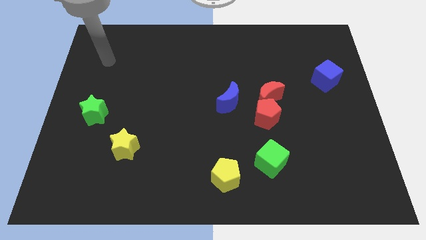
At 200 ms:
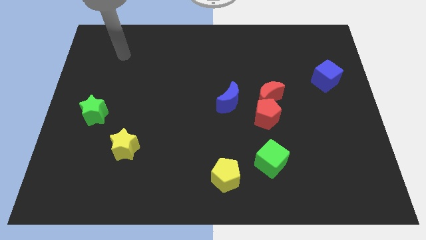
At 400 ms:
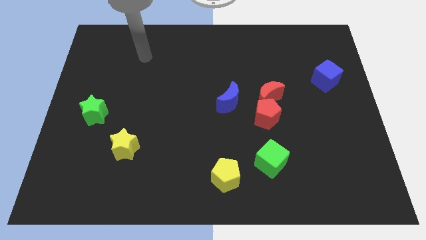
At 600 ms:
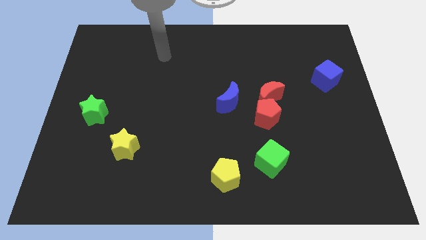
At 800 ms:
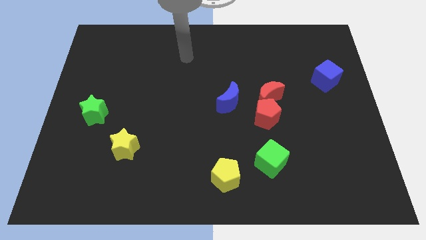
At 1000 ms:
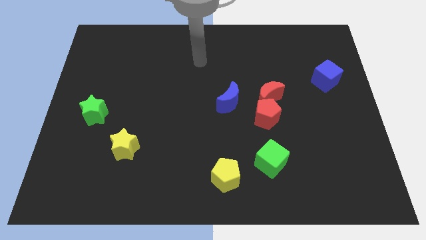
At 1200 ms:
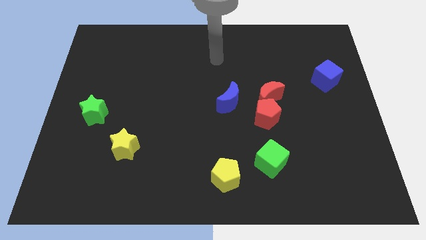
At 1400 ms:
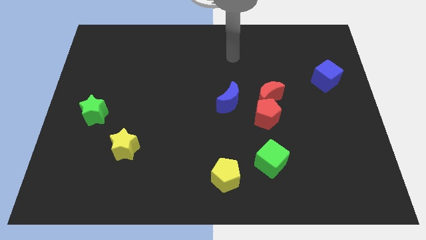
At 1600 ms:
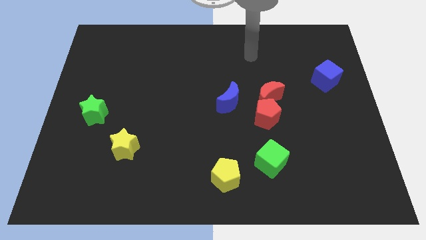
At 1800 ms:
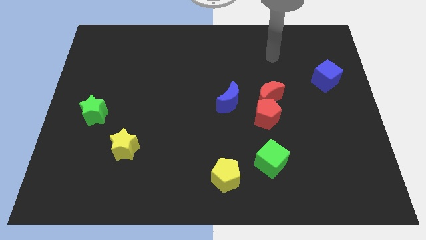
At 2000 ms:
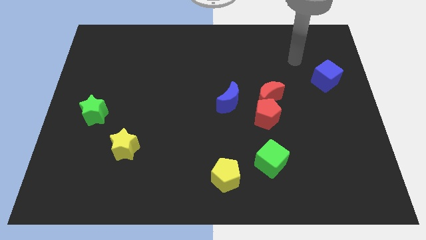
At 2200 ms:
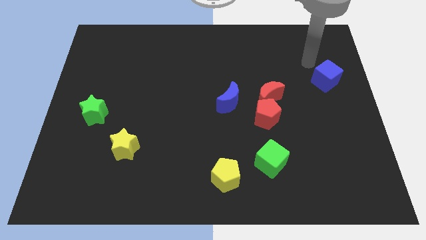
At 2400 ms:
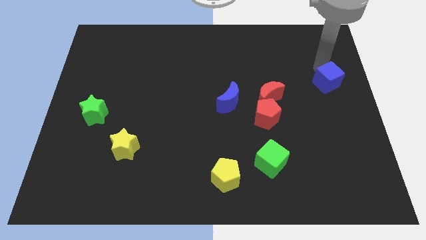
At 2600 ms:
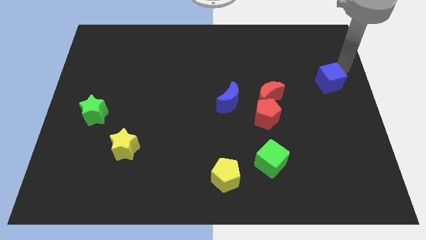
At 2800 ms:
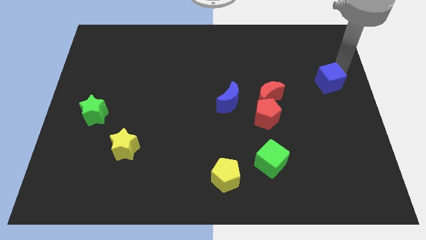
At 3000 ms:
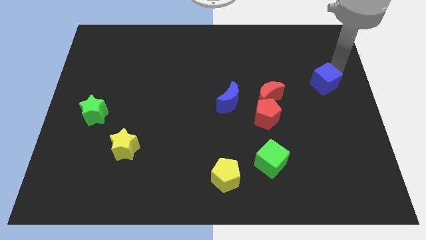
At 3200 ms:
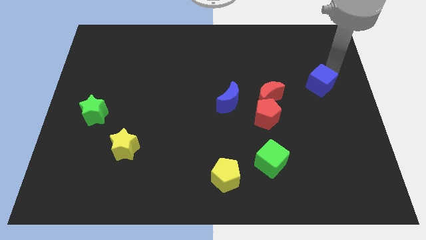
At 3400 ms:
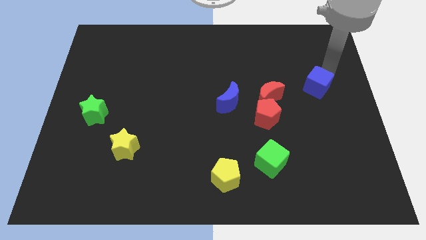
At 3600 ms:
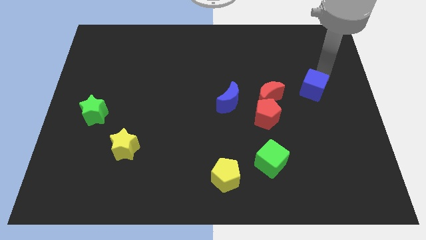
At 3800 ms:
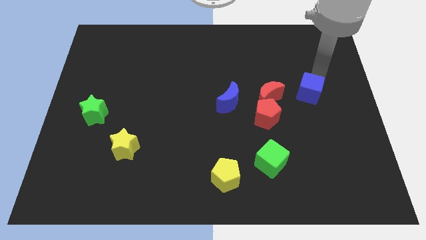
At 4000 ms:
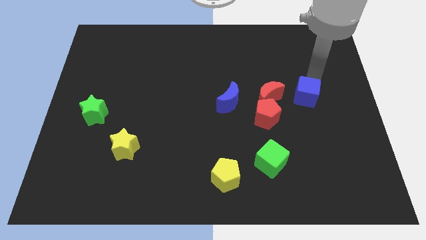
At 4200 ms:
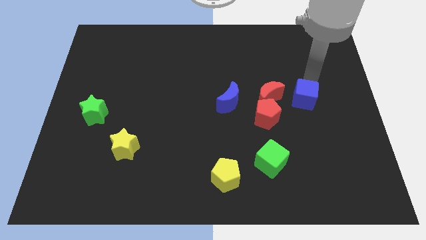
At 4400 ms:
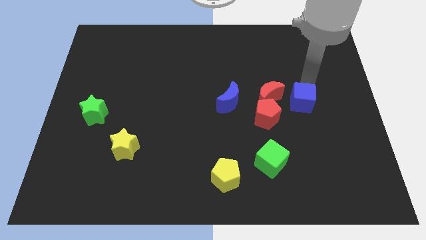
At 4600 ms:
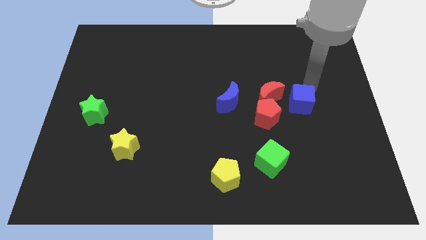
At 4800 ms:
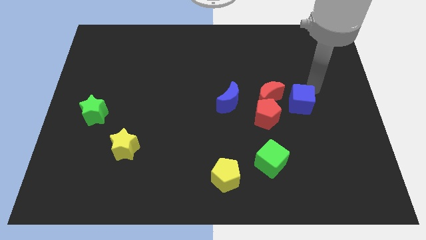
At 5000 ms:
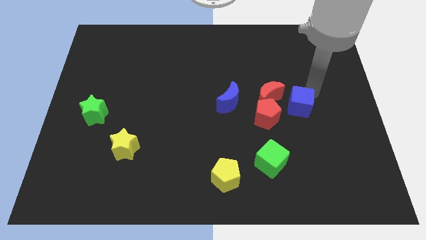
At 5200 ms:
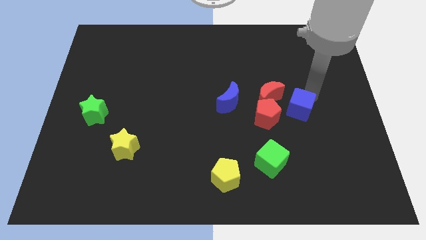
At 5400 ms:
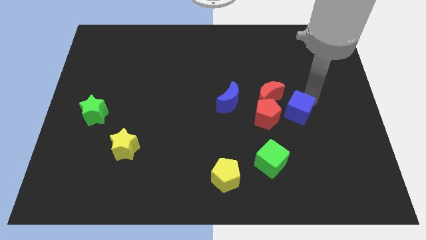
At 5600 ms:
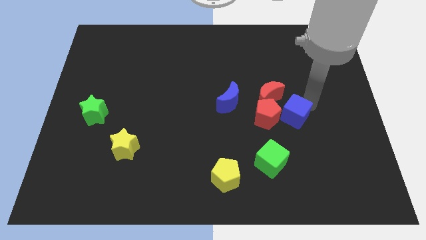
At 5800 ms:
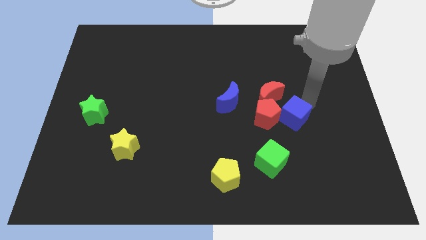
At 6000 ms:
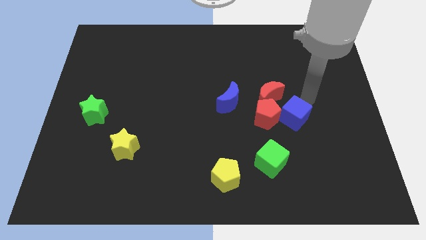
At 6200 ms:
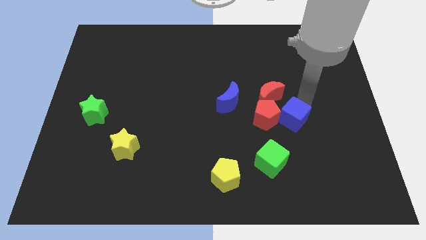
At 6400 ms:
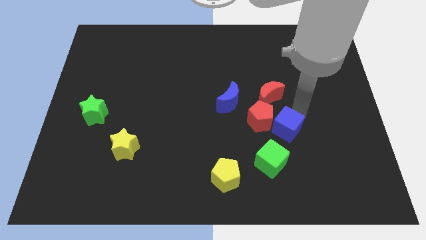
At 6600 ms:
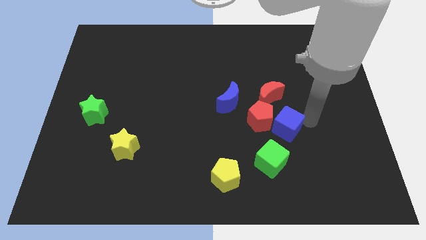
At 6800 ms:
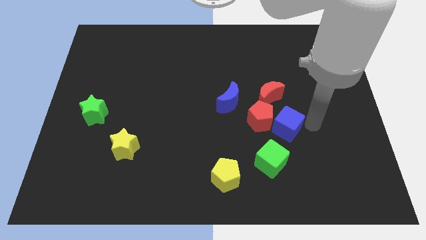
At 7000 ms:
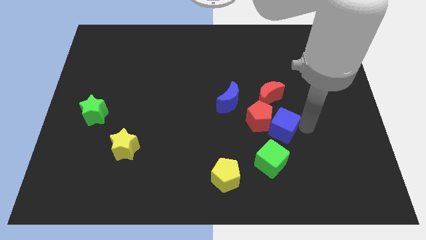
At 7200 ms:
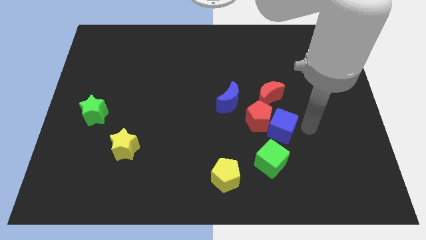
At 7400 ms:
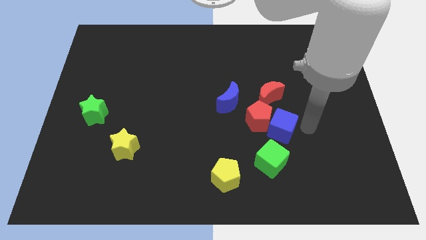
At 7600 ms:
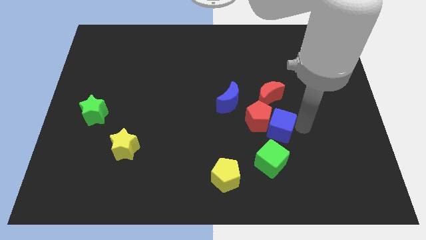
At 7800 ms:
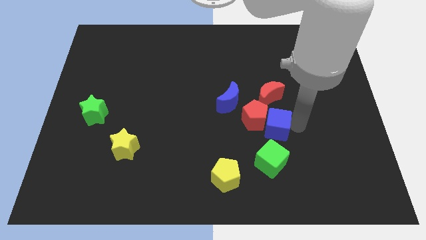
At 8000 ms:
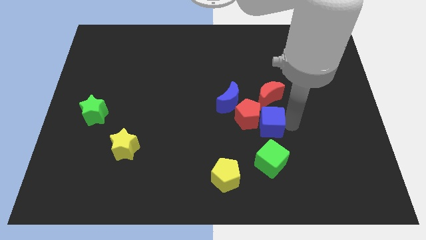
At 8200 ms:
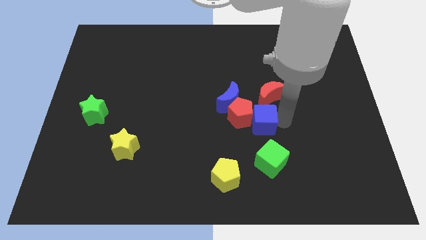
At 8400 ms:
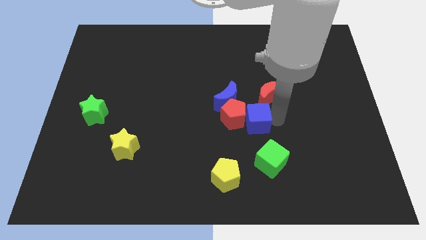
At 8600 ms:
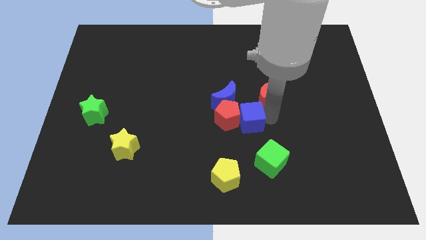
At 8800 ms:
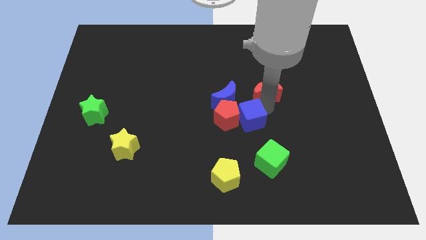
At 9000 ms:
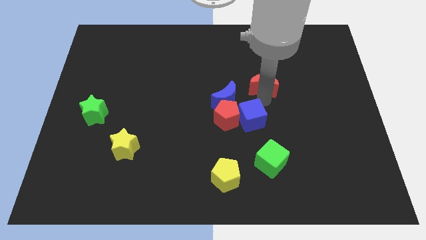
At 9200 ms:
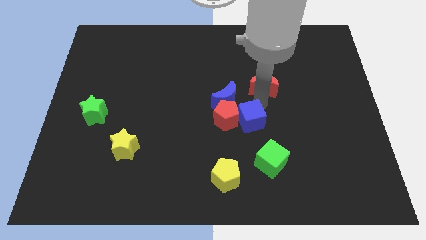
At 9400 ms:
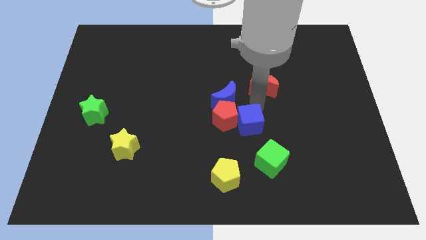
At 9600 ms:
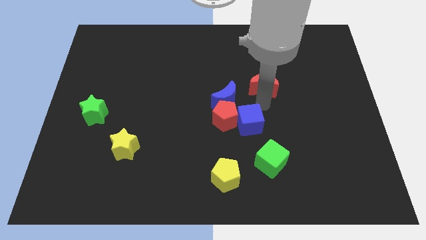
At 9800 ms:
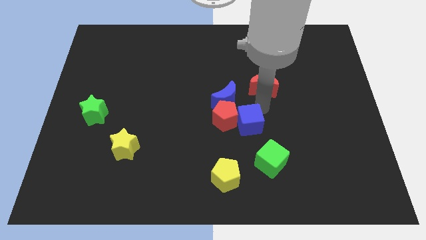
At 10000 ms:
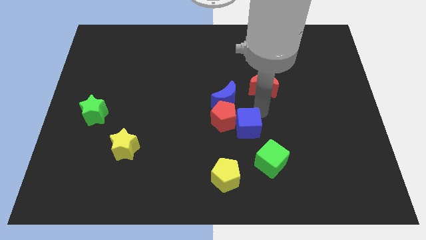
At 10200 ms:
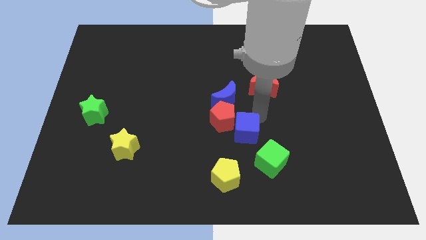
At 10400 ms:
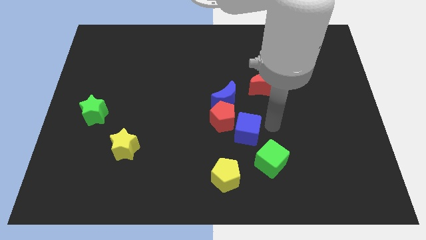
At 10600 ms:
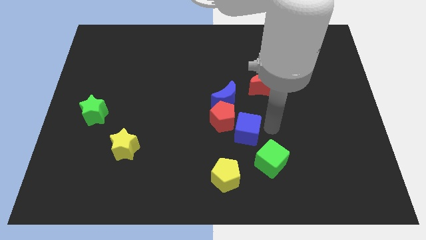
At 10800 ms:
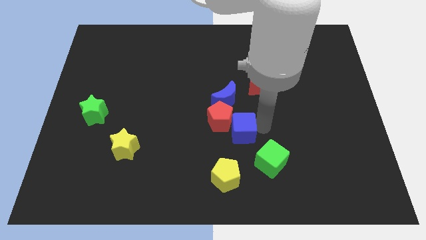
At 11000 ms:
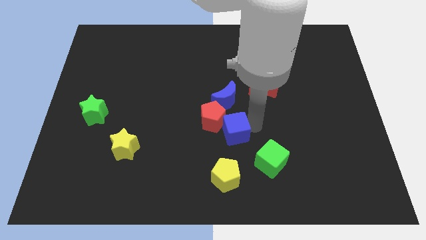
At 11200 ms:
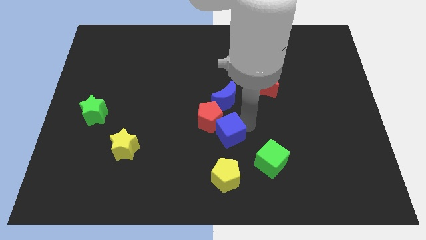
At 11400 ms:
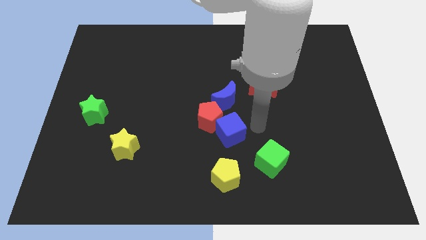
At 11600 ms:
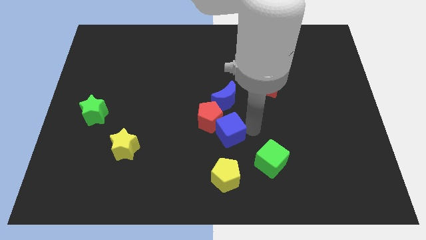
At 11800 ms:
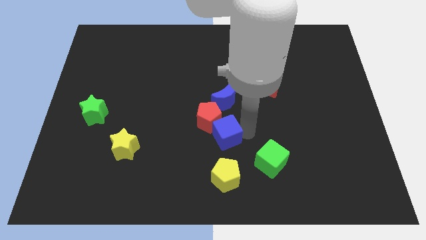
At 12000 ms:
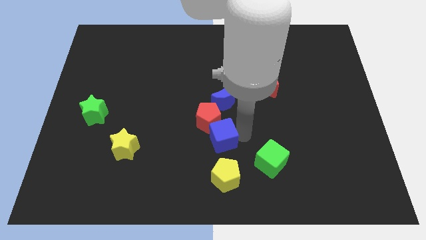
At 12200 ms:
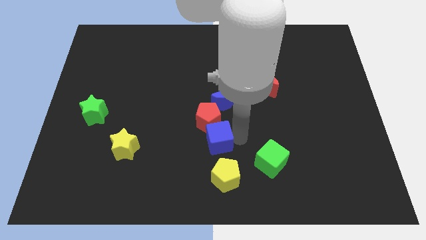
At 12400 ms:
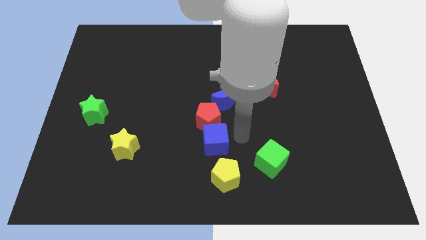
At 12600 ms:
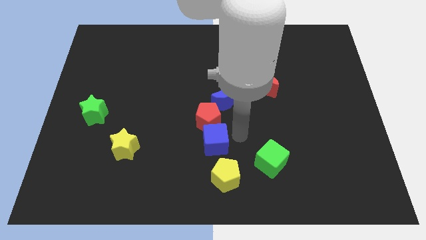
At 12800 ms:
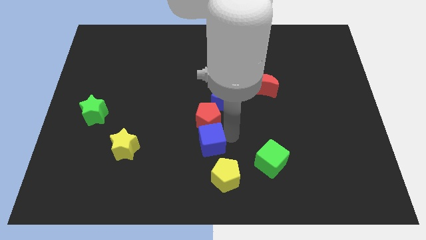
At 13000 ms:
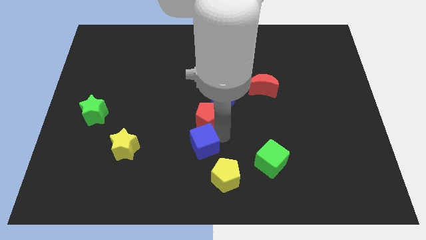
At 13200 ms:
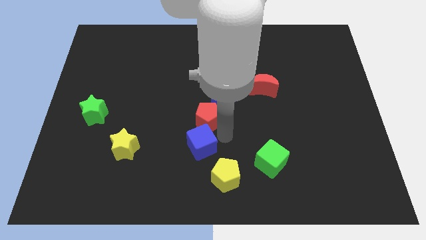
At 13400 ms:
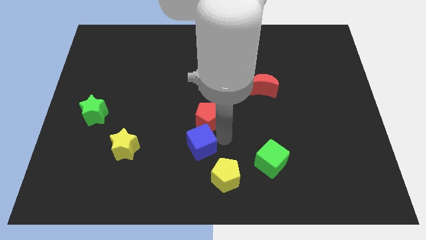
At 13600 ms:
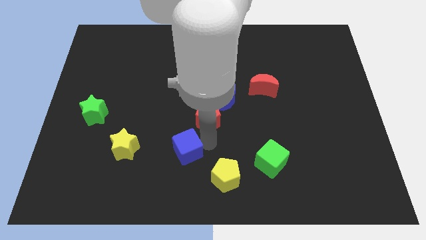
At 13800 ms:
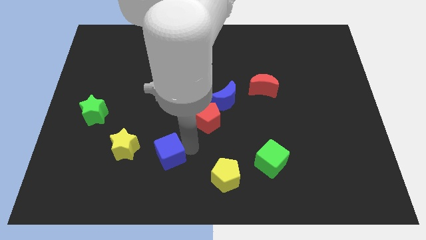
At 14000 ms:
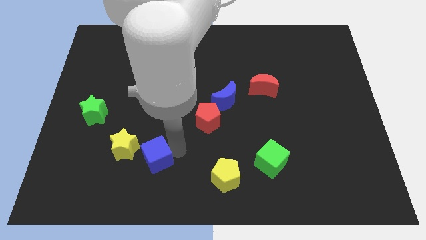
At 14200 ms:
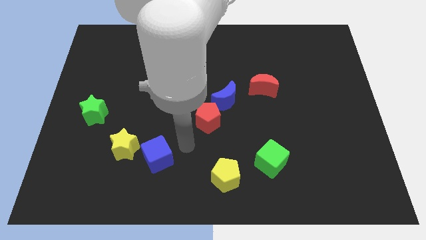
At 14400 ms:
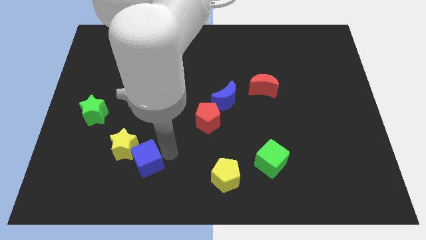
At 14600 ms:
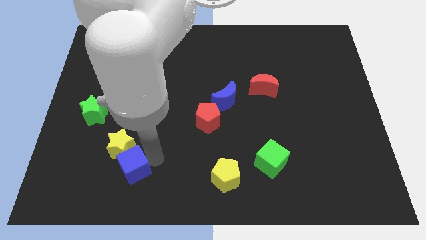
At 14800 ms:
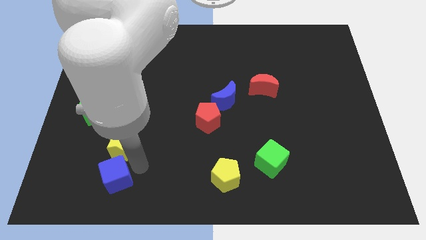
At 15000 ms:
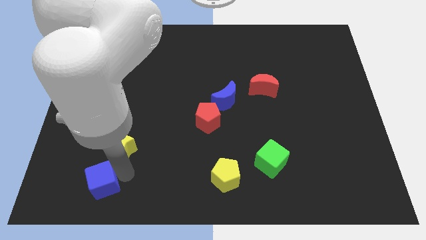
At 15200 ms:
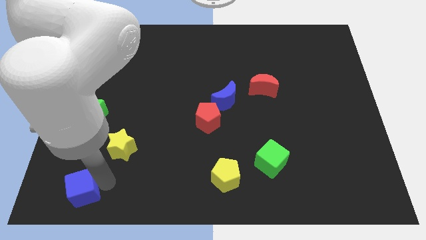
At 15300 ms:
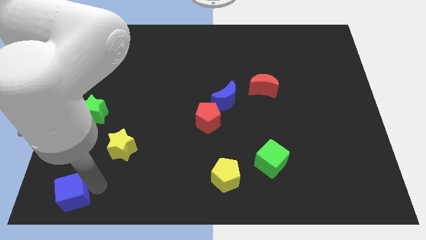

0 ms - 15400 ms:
push the blue cube to the lower left corner
